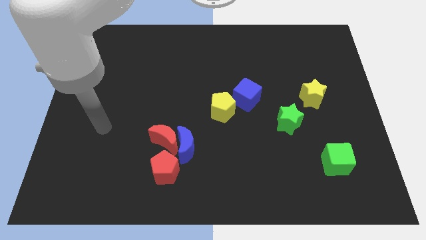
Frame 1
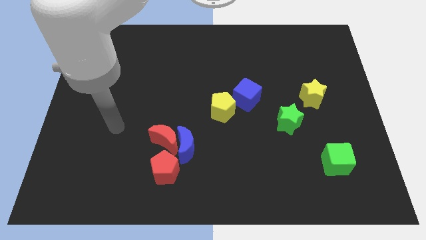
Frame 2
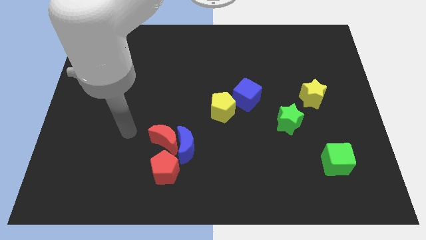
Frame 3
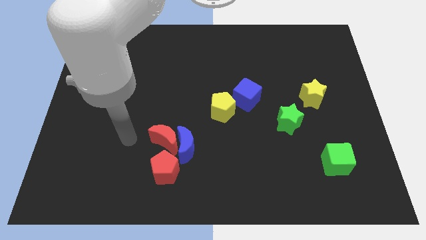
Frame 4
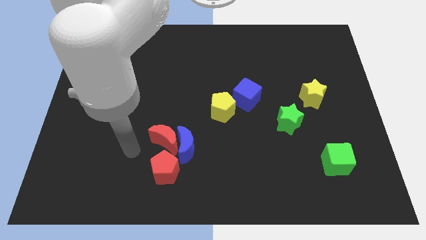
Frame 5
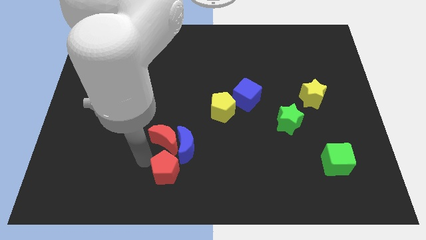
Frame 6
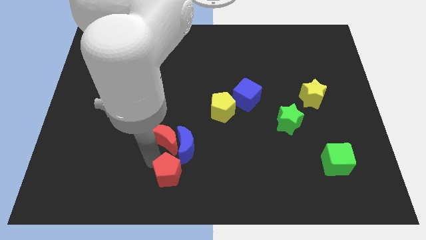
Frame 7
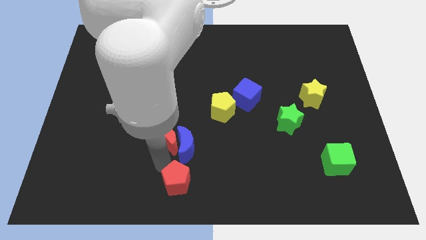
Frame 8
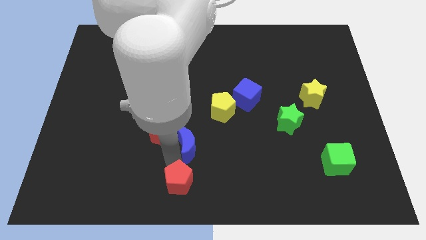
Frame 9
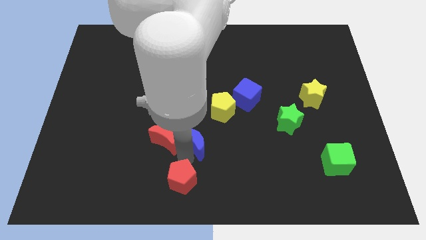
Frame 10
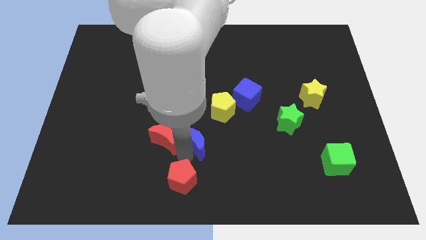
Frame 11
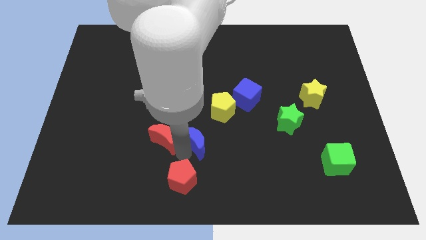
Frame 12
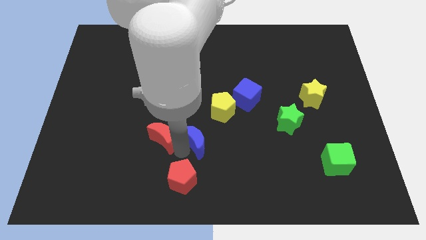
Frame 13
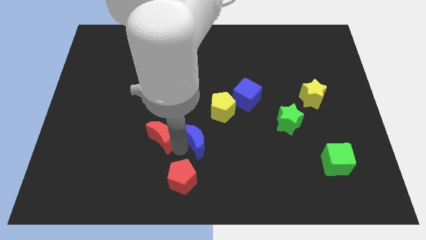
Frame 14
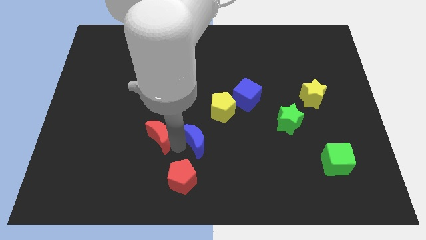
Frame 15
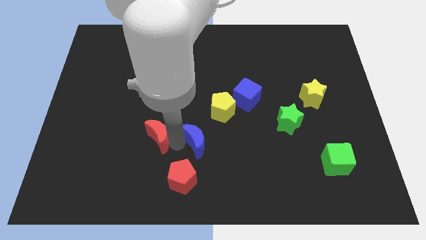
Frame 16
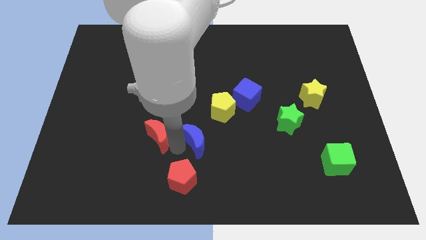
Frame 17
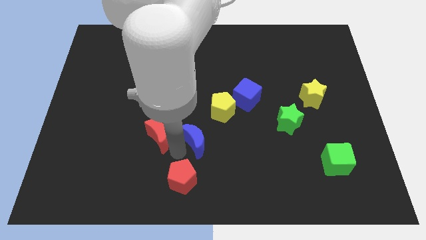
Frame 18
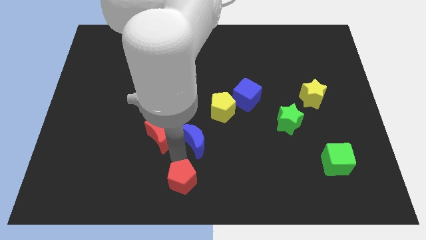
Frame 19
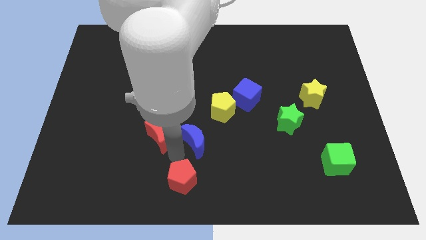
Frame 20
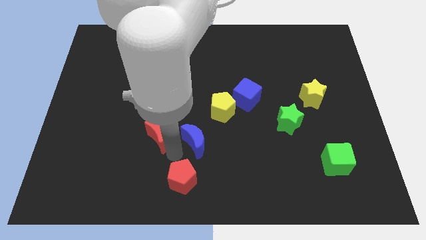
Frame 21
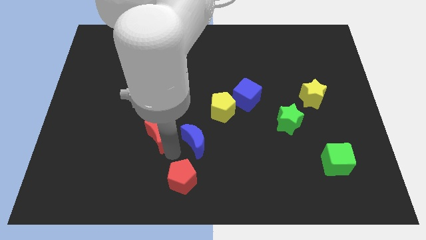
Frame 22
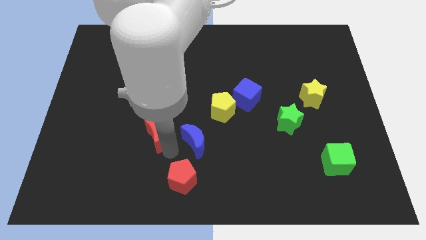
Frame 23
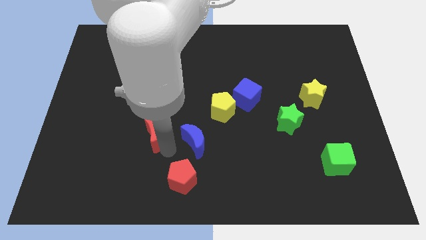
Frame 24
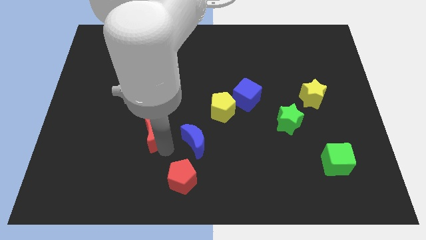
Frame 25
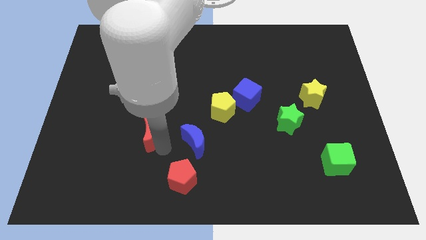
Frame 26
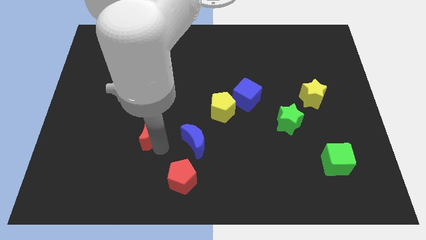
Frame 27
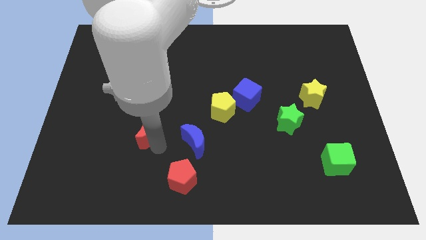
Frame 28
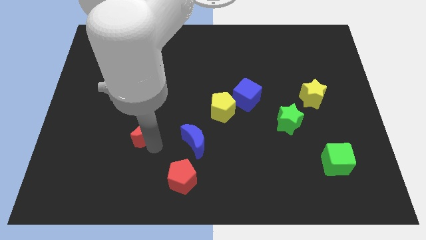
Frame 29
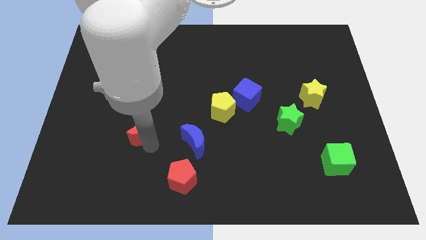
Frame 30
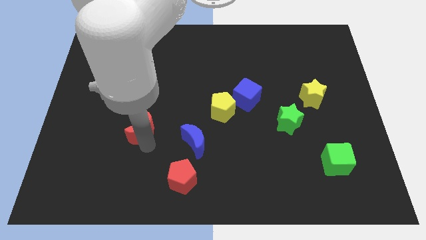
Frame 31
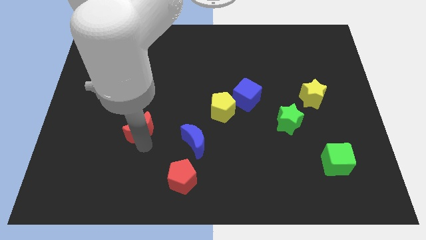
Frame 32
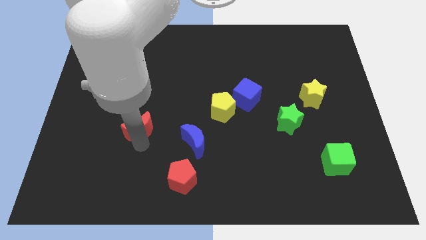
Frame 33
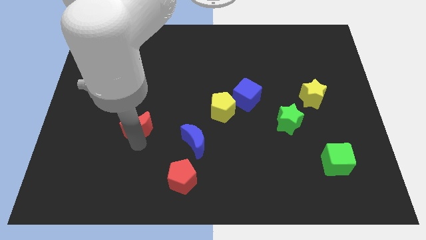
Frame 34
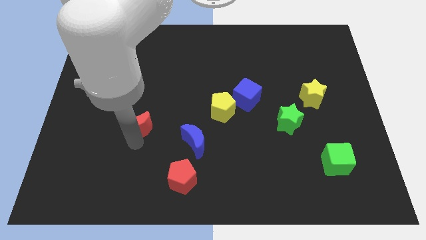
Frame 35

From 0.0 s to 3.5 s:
slightly push the red moon diagonally upwards and to the left

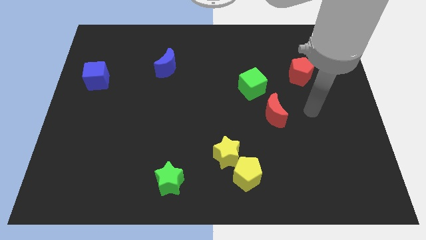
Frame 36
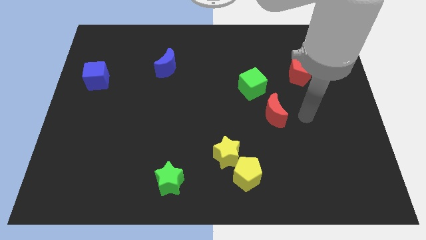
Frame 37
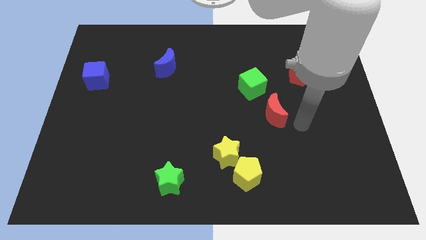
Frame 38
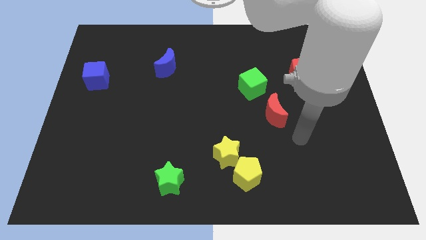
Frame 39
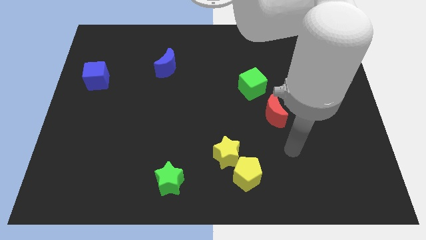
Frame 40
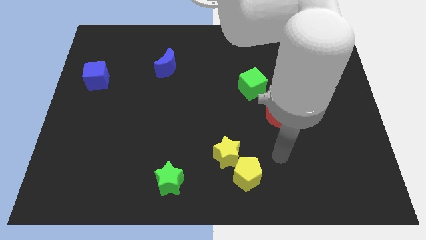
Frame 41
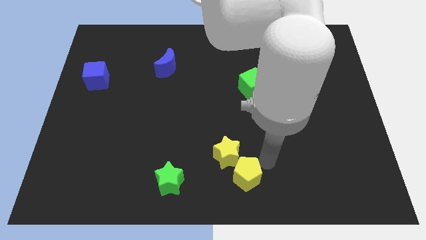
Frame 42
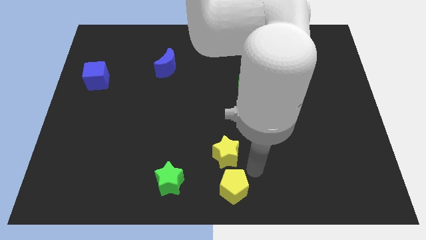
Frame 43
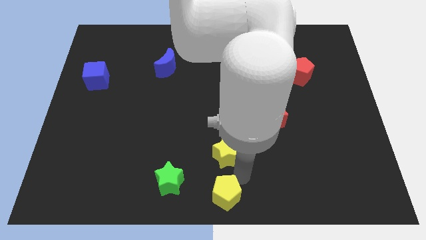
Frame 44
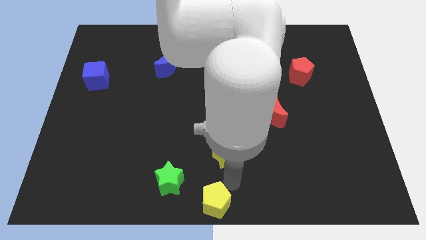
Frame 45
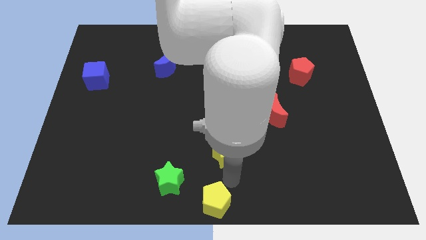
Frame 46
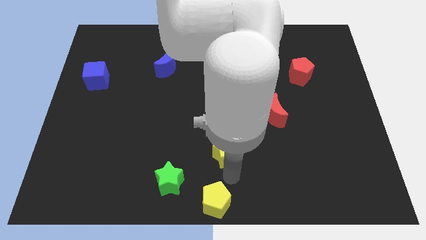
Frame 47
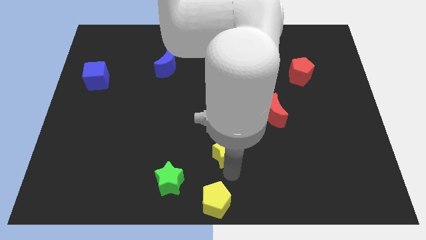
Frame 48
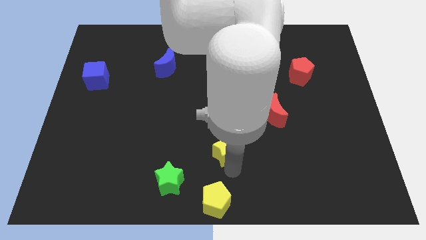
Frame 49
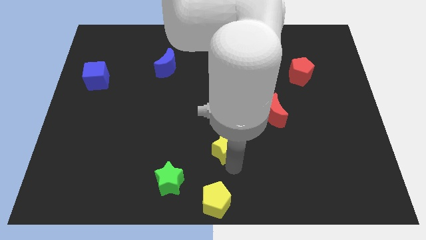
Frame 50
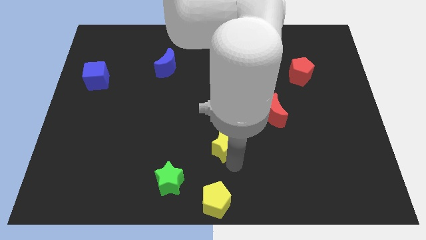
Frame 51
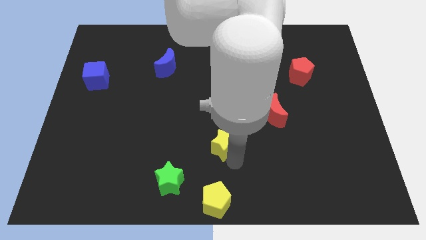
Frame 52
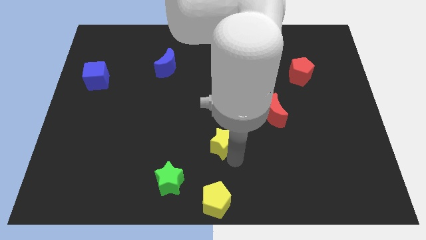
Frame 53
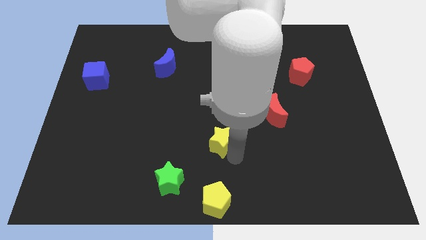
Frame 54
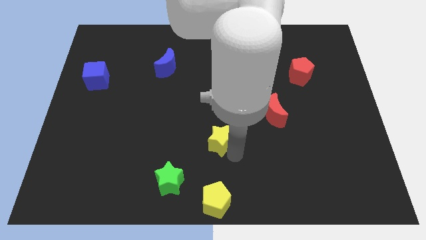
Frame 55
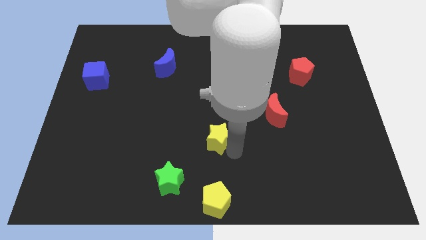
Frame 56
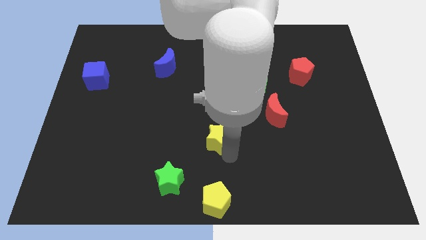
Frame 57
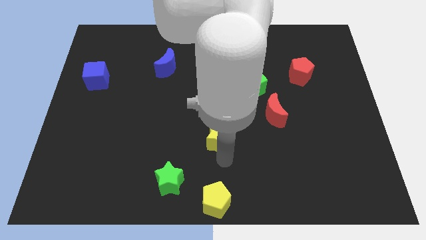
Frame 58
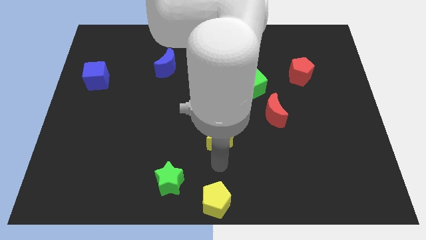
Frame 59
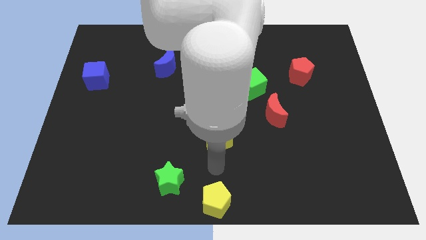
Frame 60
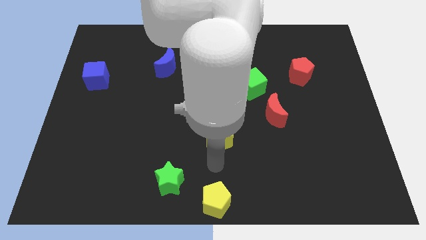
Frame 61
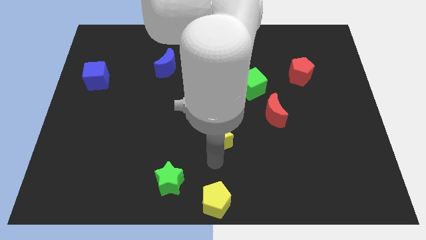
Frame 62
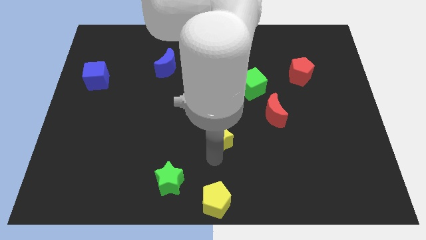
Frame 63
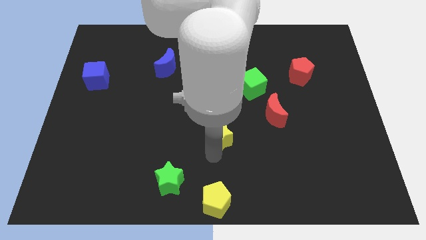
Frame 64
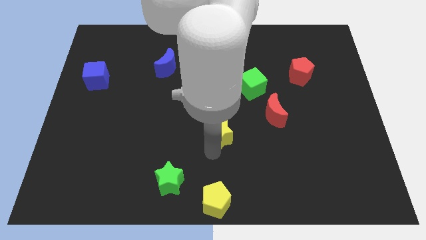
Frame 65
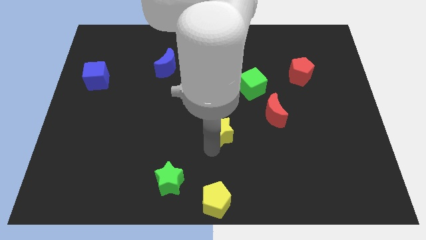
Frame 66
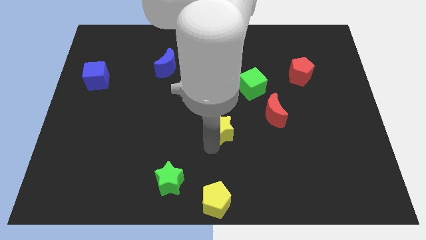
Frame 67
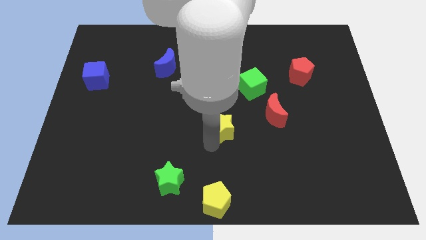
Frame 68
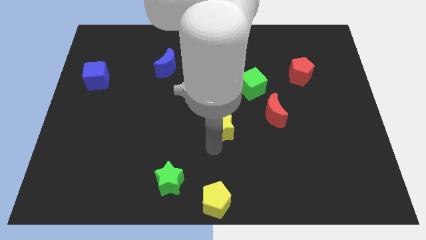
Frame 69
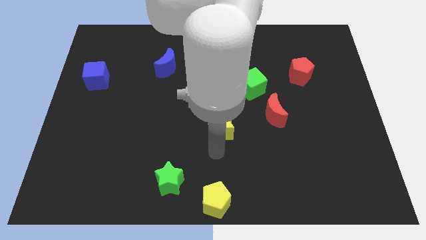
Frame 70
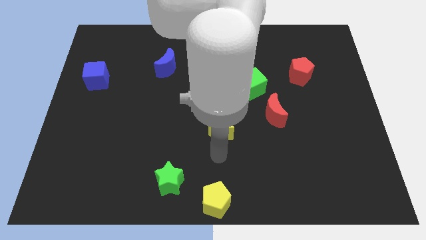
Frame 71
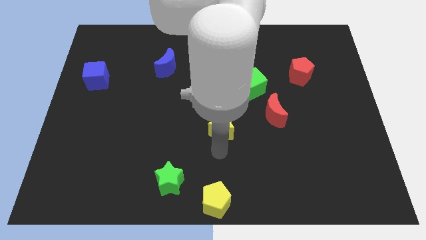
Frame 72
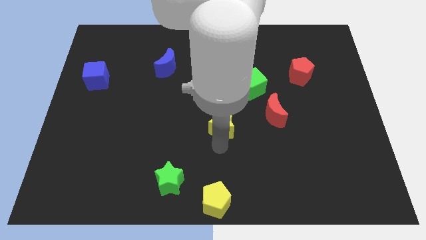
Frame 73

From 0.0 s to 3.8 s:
move the yellow star upwards a little bit

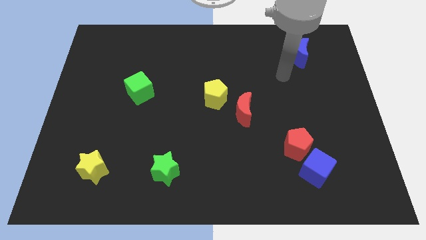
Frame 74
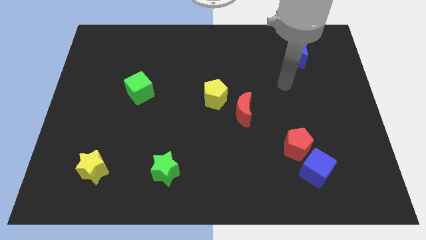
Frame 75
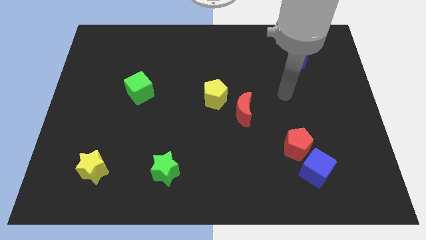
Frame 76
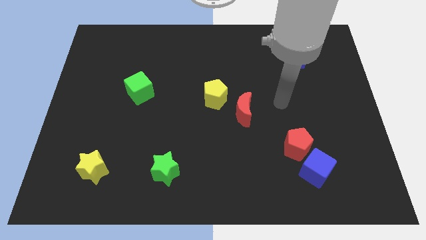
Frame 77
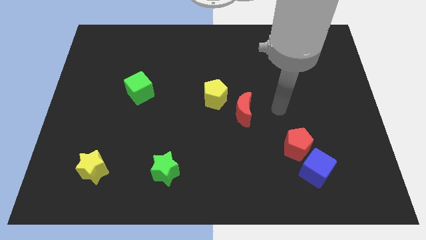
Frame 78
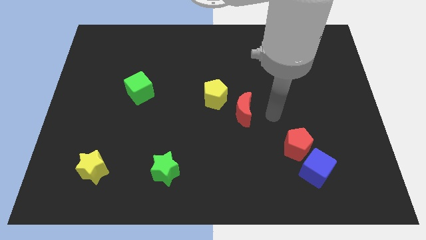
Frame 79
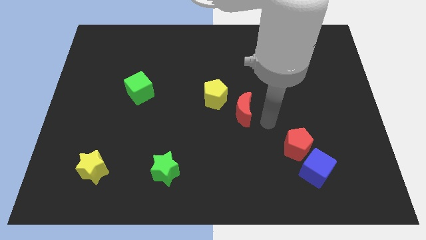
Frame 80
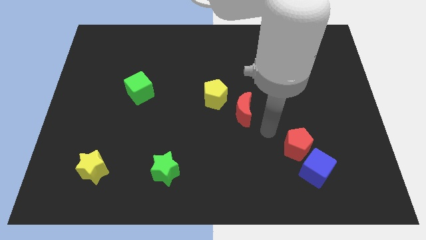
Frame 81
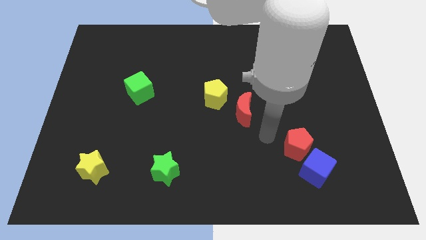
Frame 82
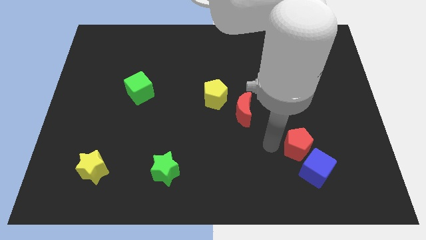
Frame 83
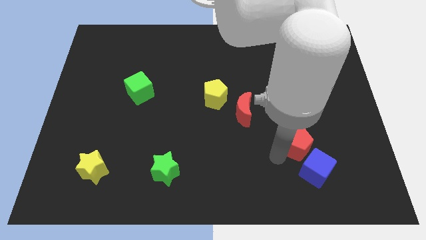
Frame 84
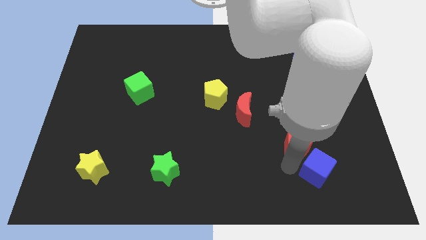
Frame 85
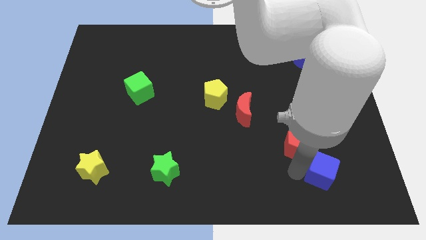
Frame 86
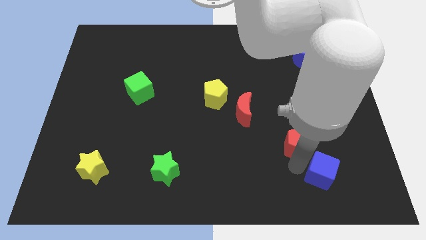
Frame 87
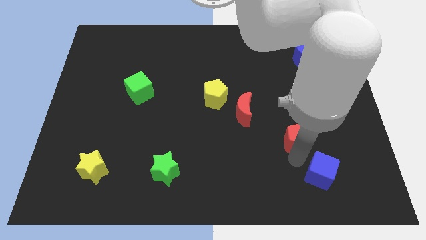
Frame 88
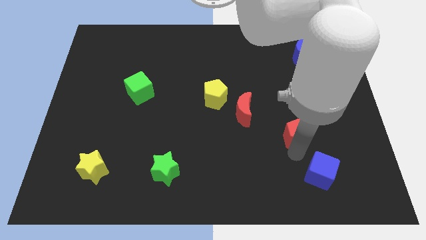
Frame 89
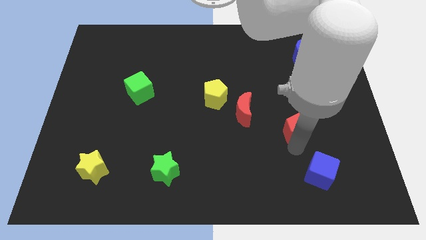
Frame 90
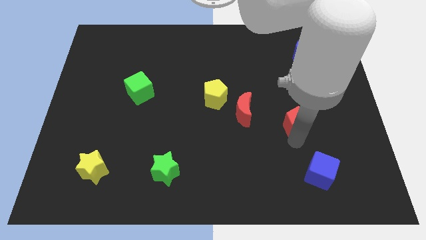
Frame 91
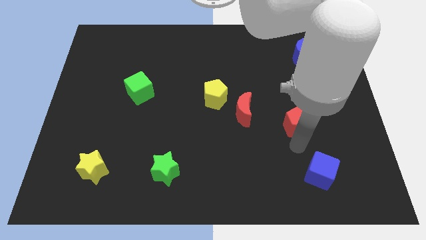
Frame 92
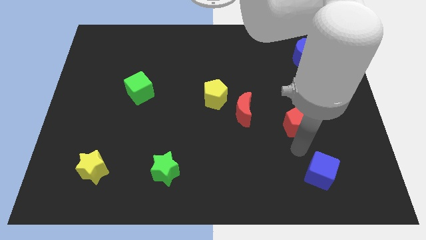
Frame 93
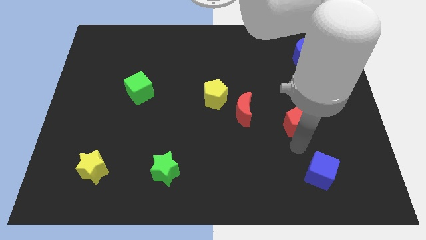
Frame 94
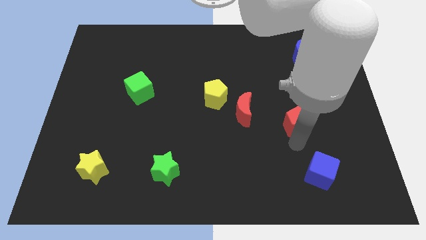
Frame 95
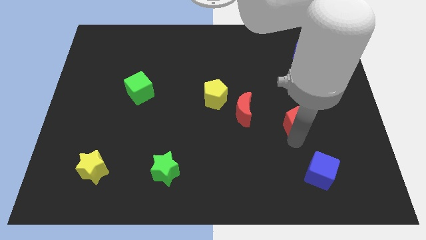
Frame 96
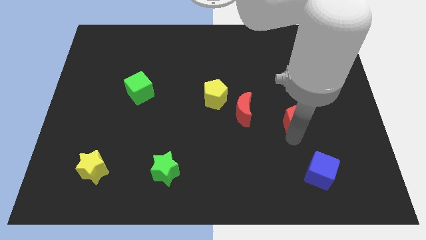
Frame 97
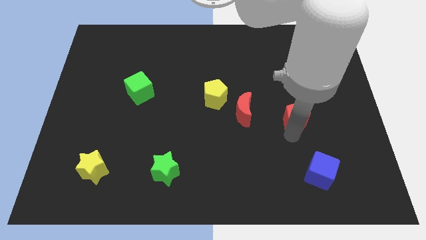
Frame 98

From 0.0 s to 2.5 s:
slightly push the red pentagon up
